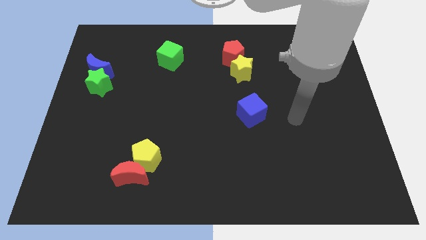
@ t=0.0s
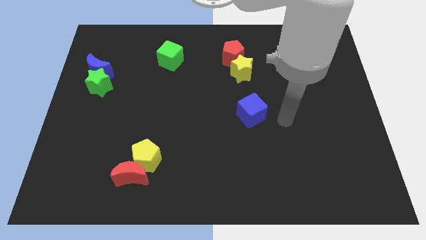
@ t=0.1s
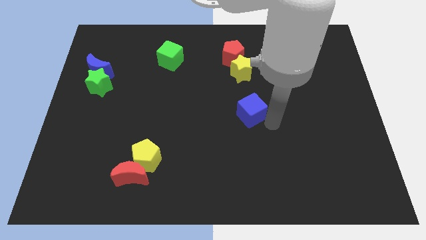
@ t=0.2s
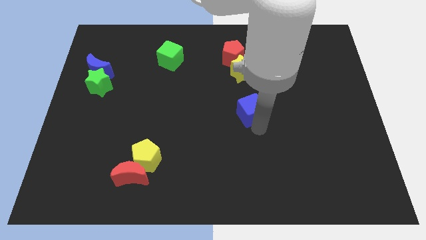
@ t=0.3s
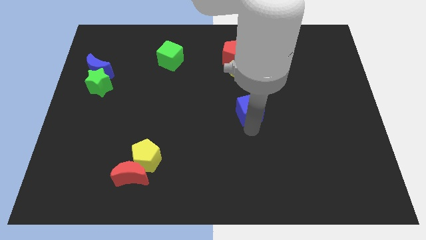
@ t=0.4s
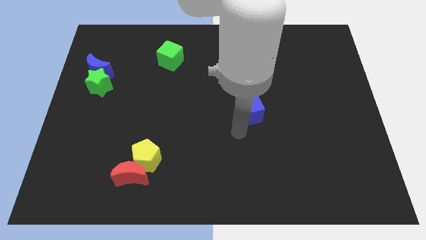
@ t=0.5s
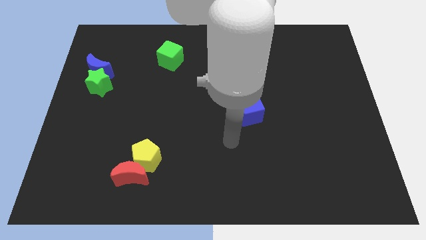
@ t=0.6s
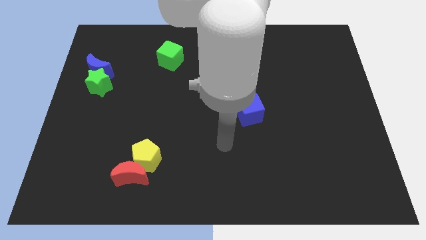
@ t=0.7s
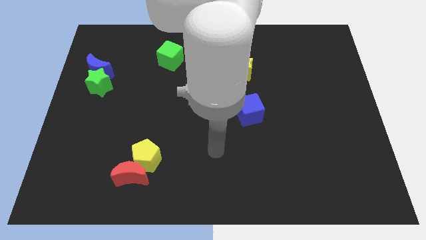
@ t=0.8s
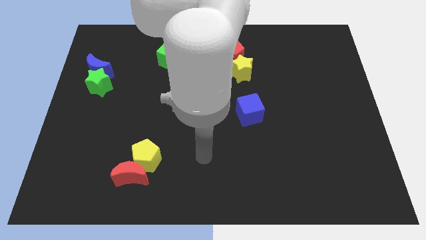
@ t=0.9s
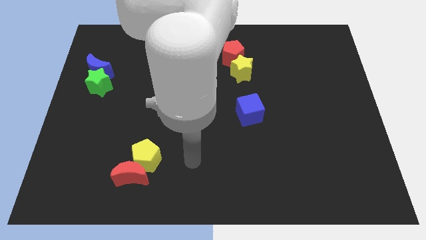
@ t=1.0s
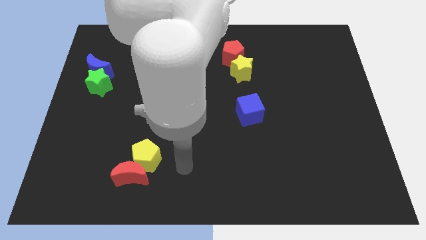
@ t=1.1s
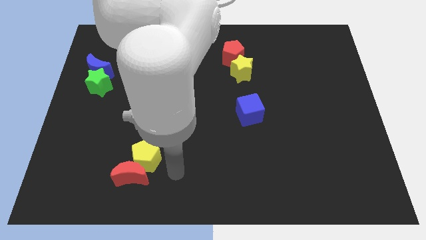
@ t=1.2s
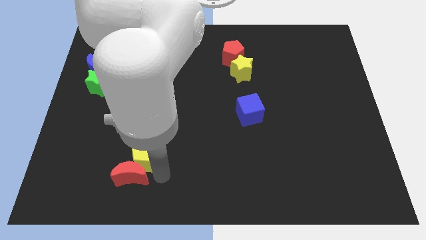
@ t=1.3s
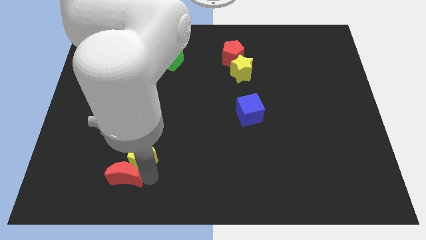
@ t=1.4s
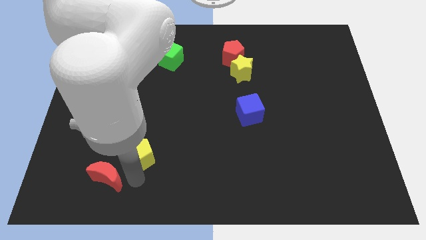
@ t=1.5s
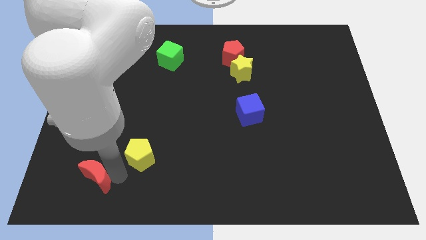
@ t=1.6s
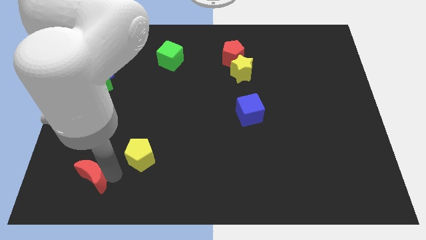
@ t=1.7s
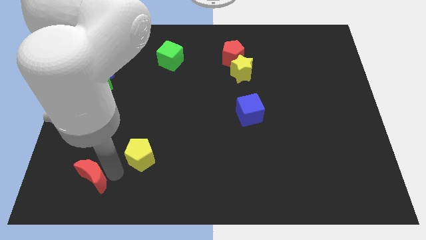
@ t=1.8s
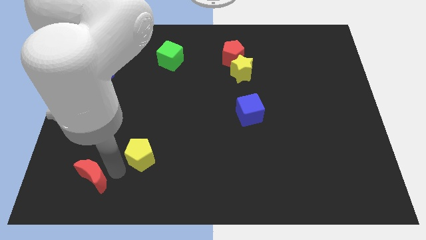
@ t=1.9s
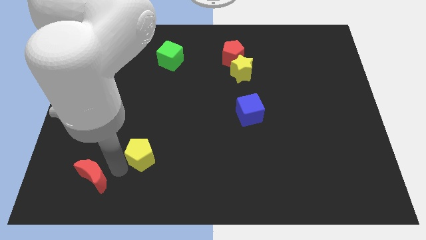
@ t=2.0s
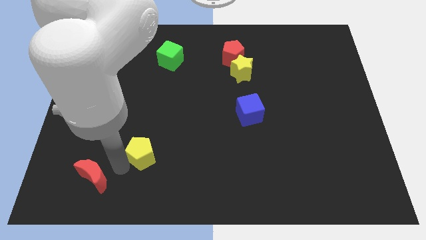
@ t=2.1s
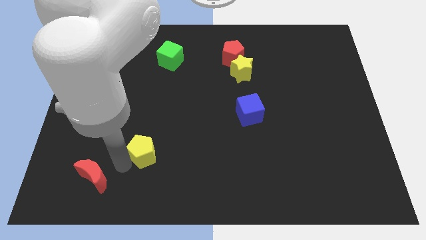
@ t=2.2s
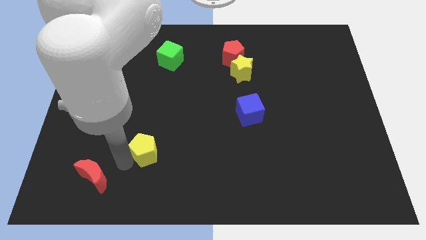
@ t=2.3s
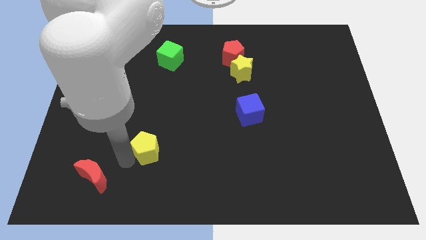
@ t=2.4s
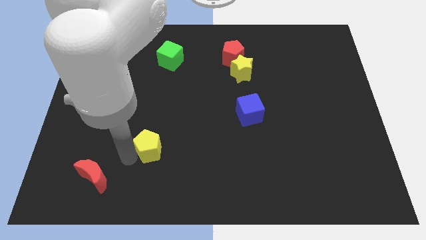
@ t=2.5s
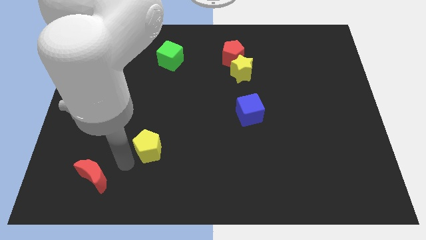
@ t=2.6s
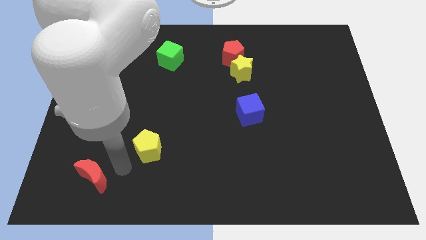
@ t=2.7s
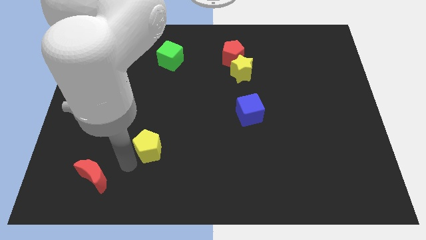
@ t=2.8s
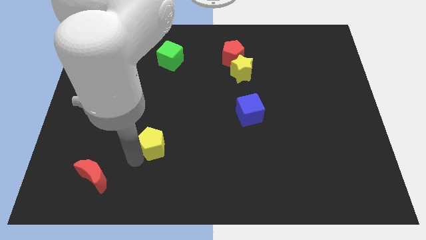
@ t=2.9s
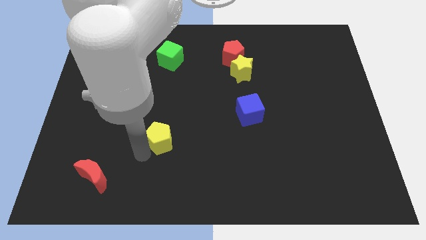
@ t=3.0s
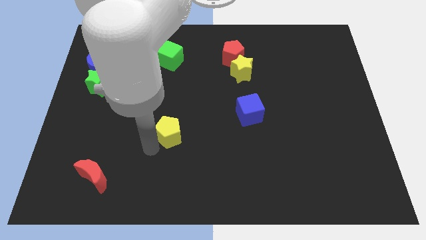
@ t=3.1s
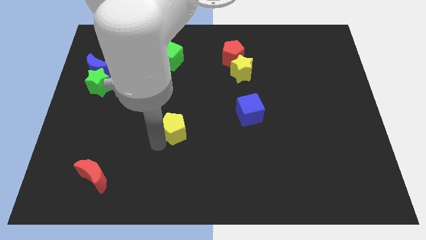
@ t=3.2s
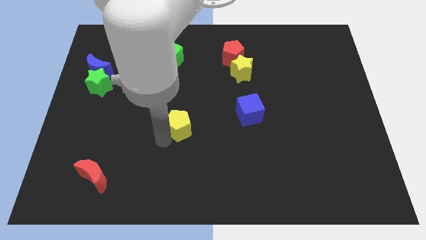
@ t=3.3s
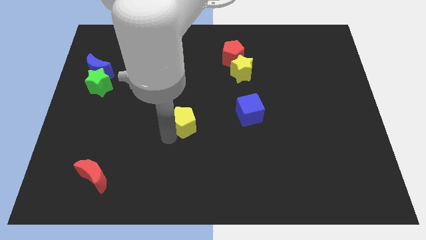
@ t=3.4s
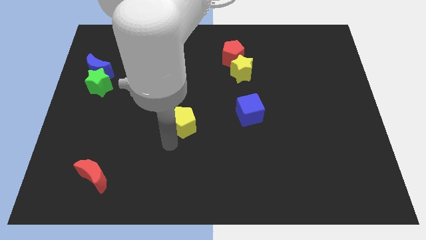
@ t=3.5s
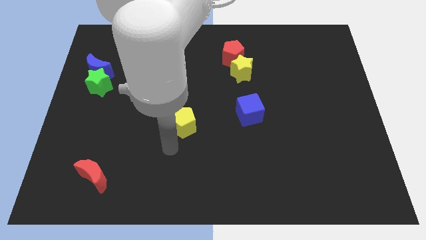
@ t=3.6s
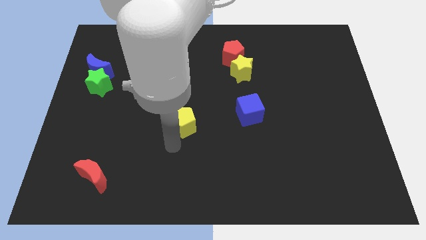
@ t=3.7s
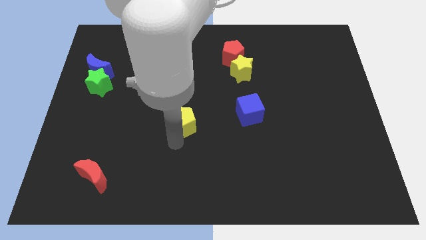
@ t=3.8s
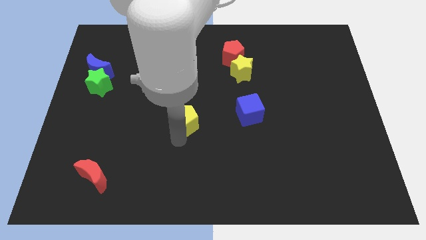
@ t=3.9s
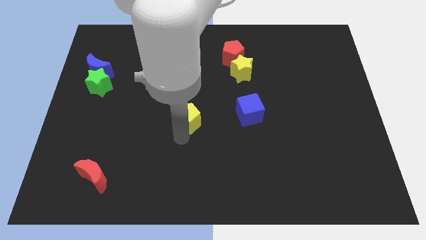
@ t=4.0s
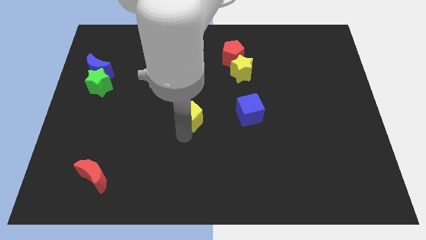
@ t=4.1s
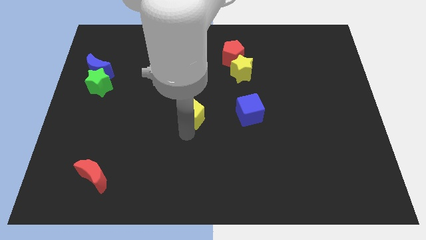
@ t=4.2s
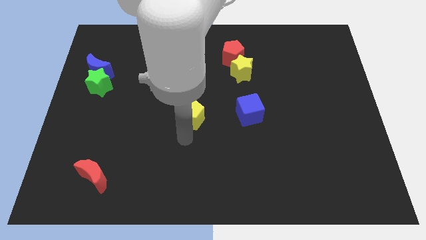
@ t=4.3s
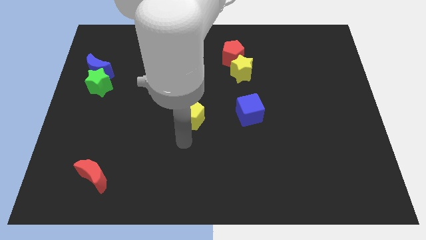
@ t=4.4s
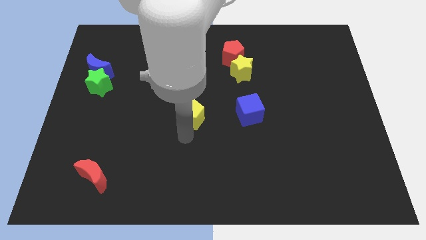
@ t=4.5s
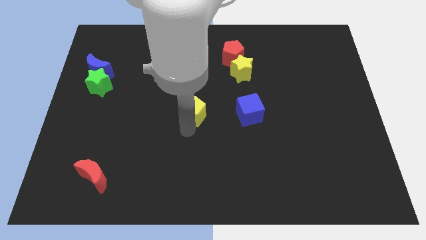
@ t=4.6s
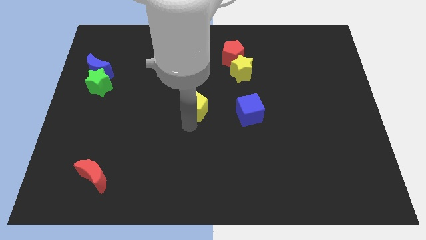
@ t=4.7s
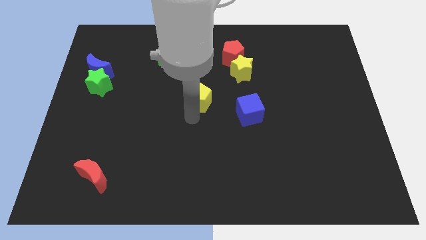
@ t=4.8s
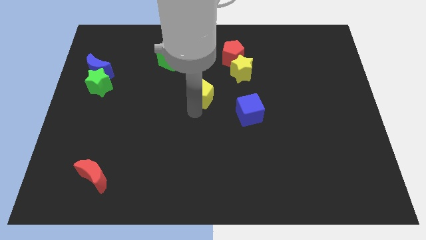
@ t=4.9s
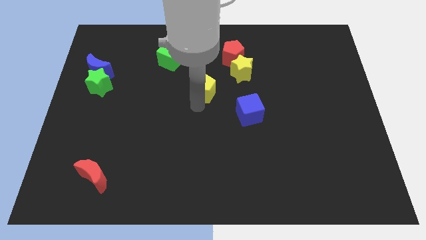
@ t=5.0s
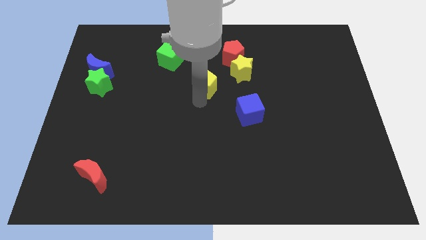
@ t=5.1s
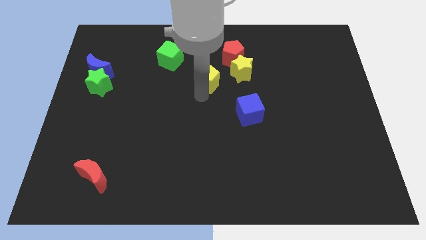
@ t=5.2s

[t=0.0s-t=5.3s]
put the yellow pentagon diagonally down and to the left of the red pentagon
